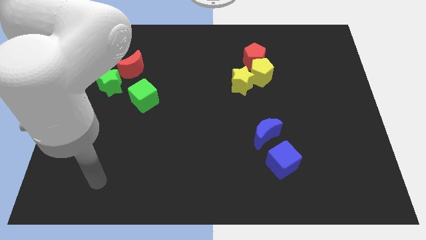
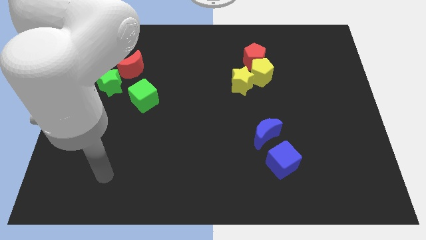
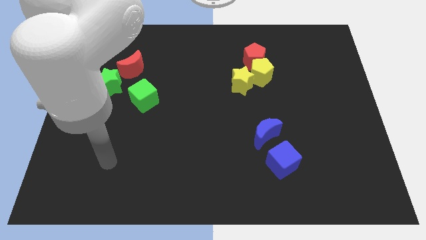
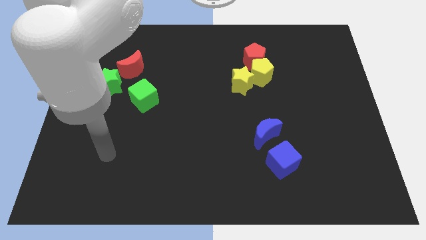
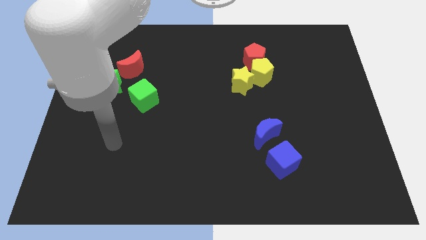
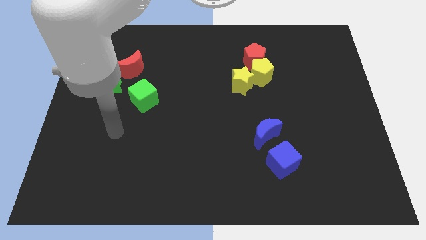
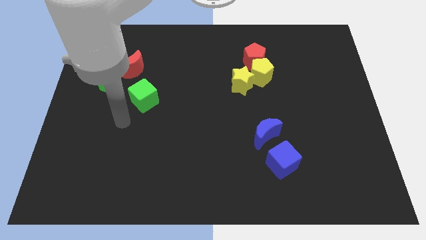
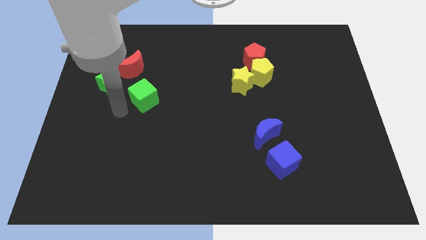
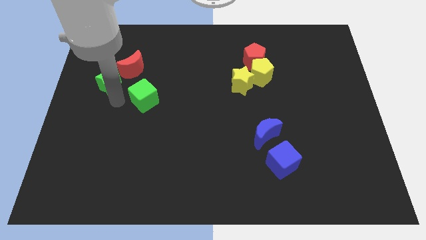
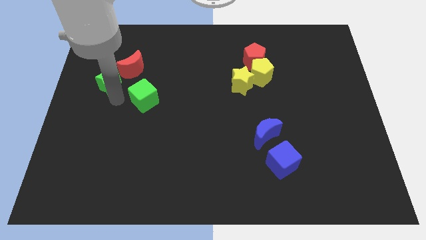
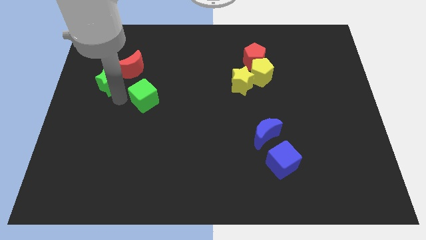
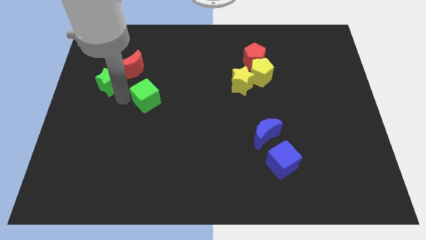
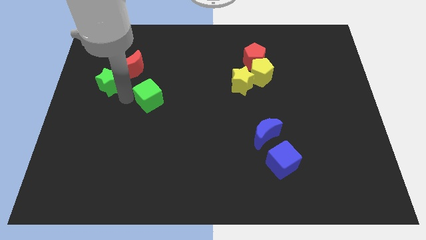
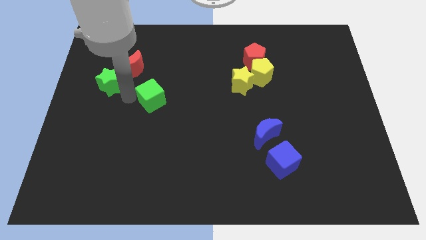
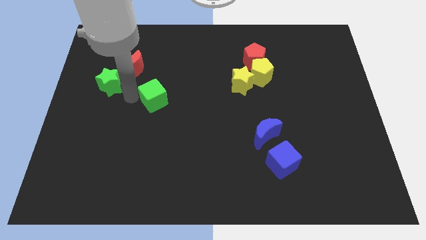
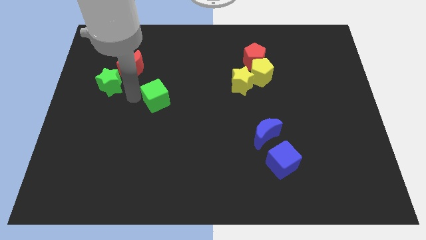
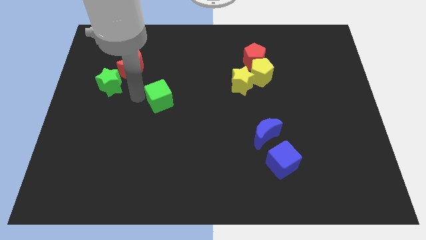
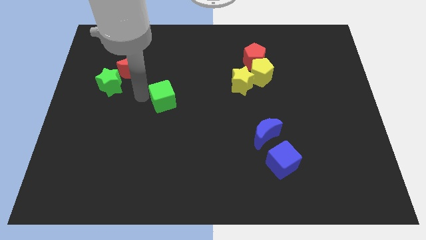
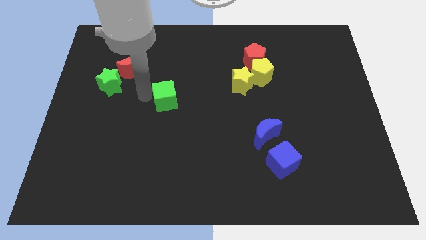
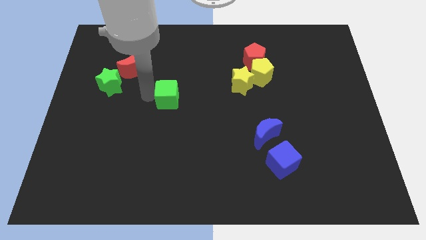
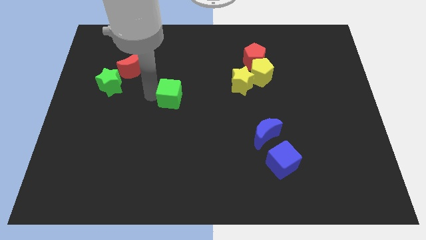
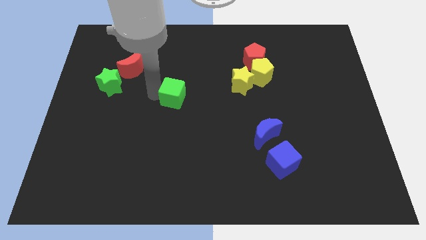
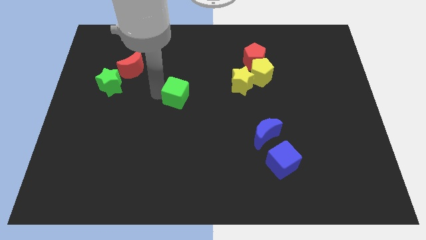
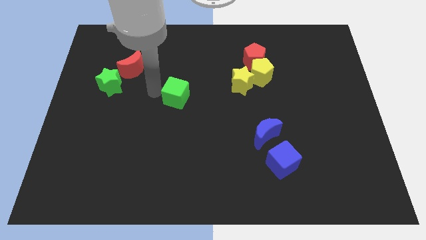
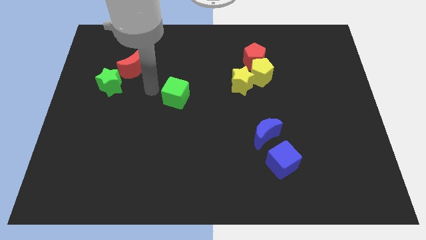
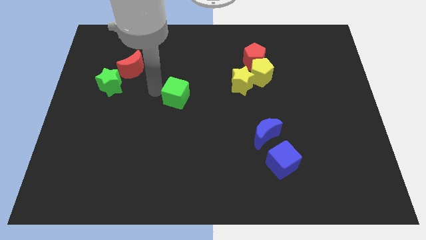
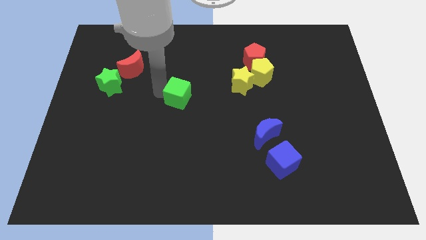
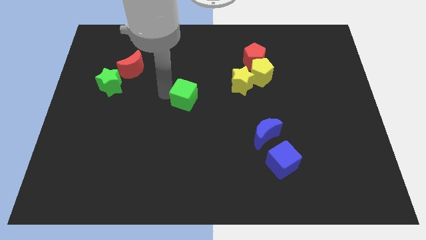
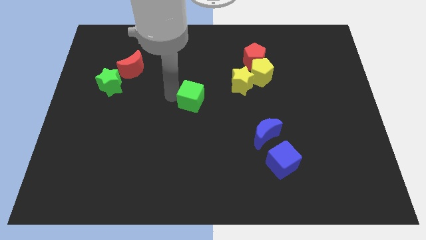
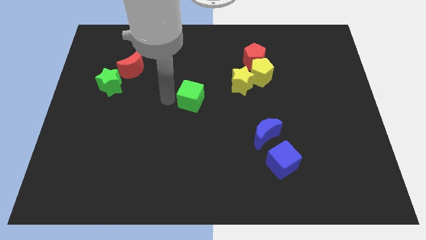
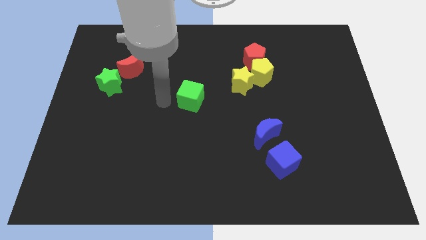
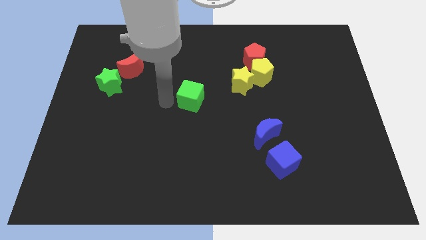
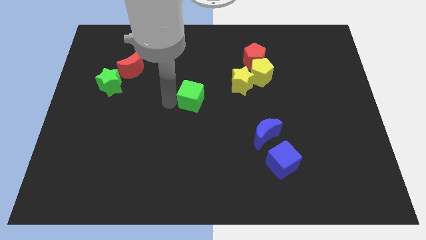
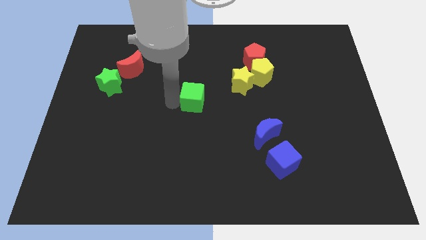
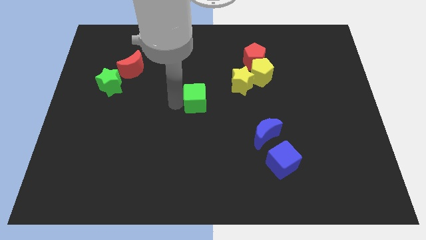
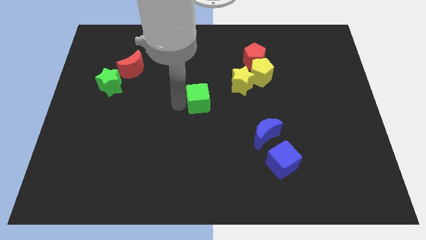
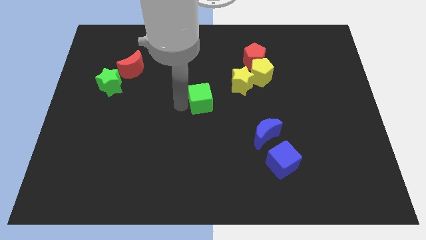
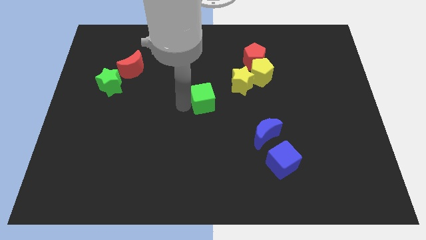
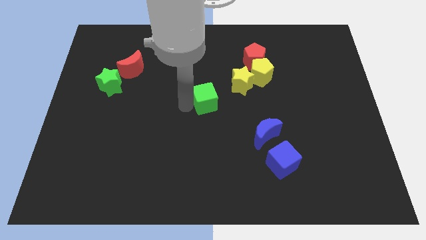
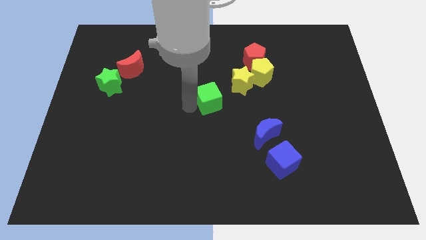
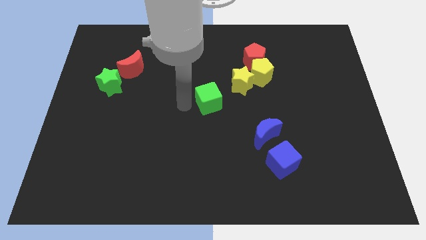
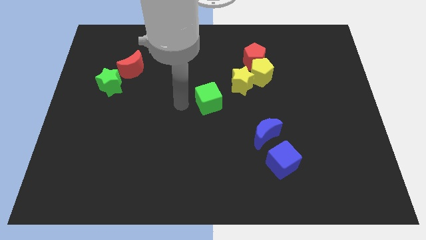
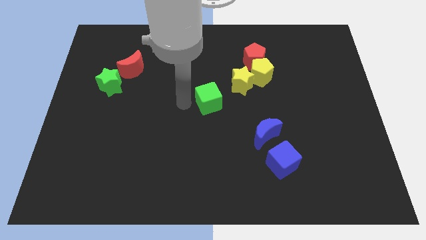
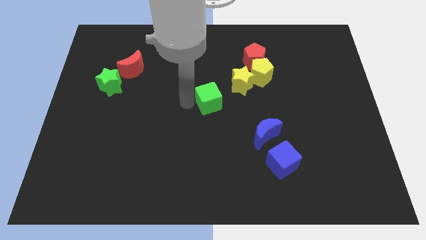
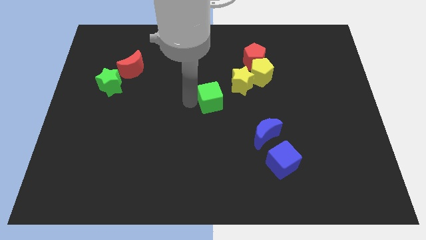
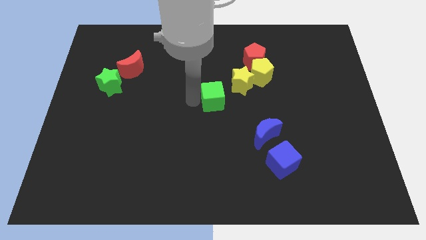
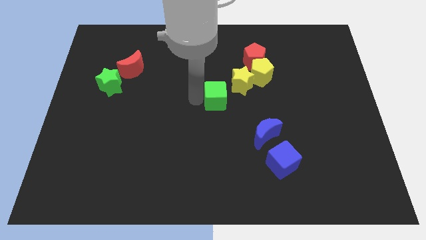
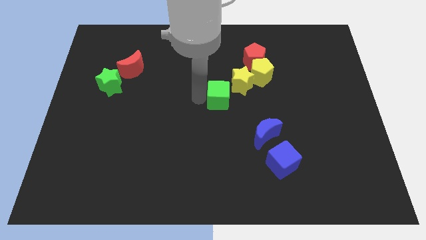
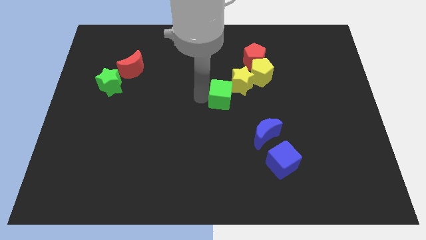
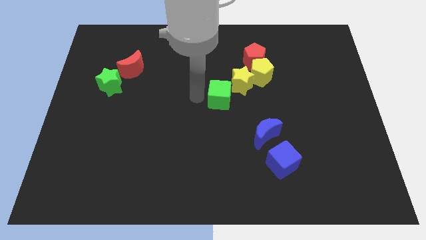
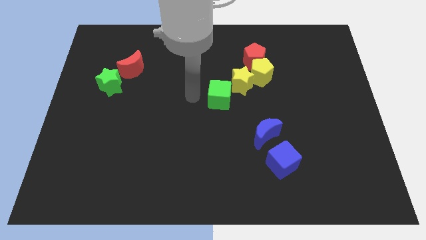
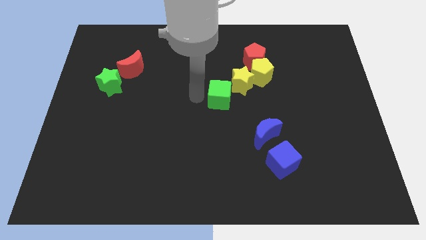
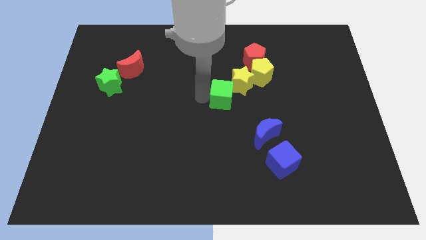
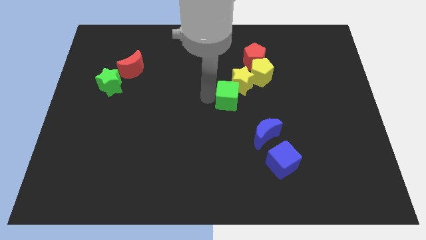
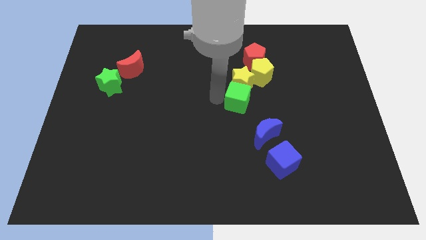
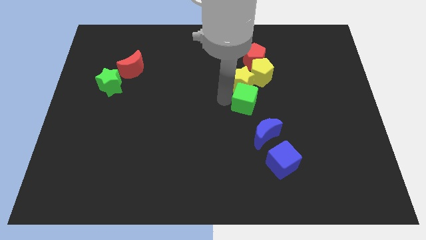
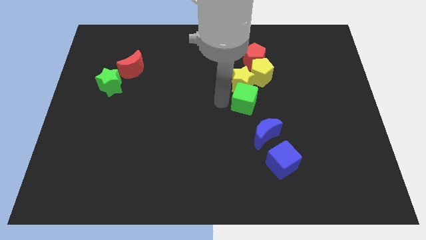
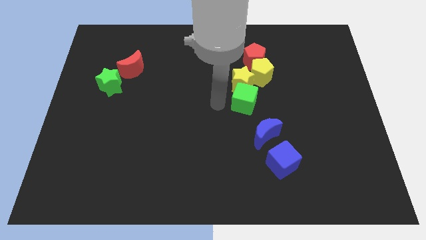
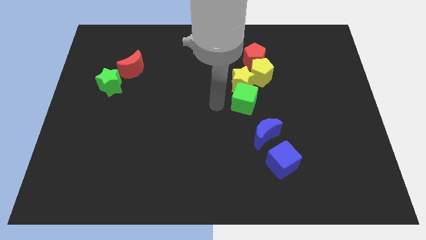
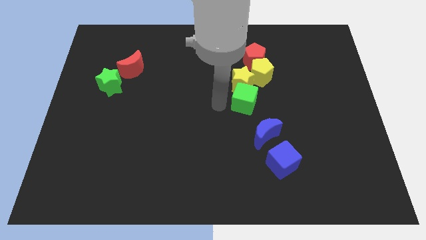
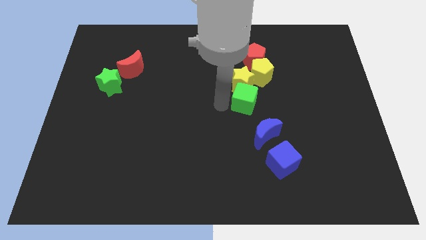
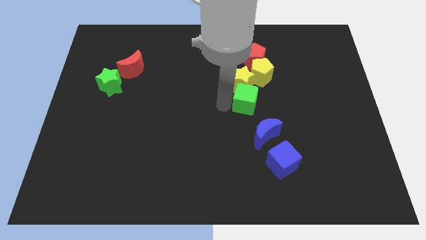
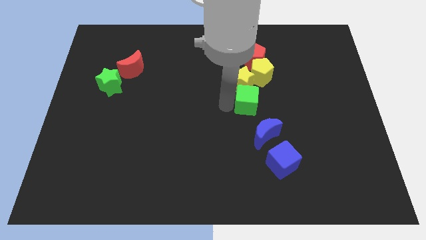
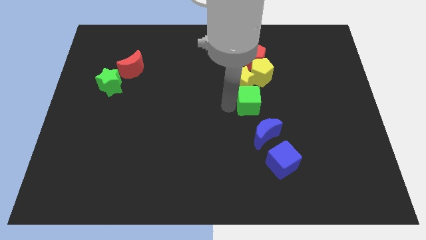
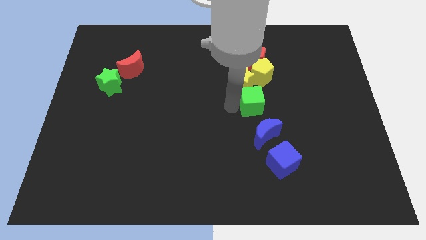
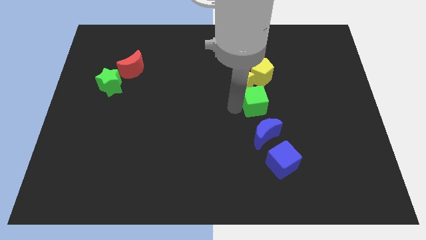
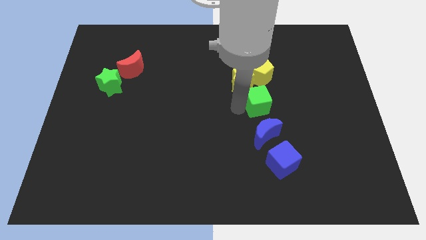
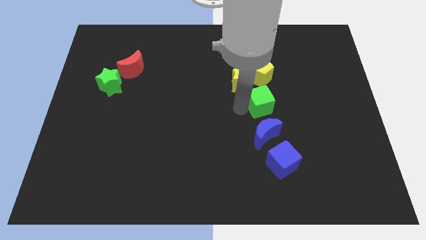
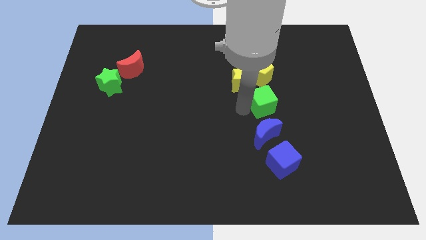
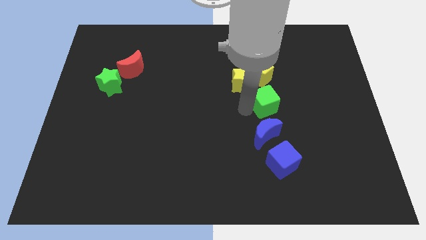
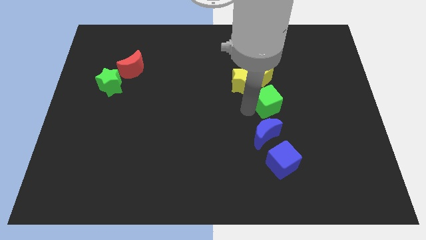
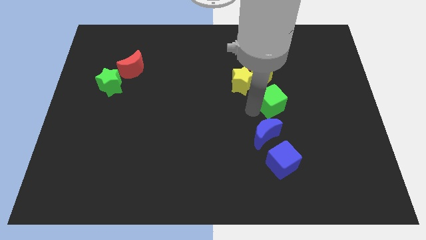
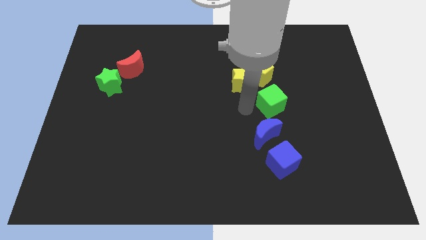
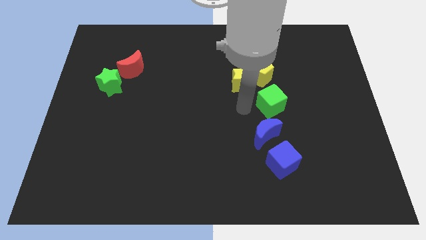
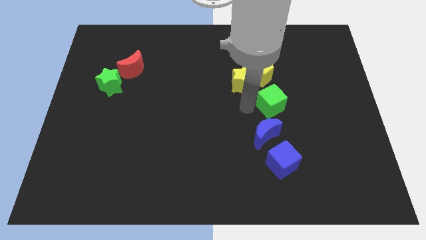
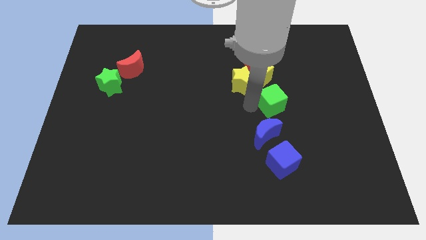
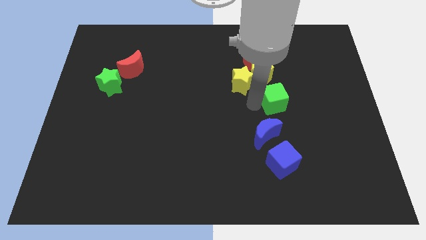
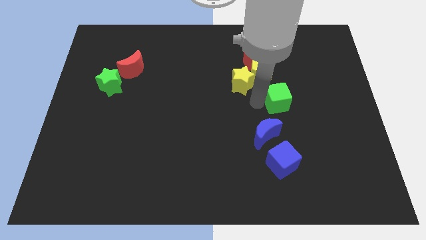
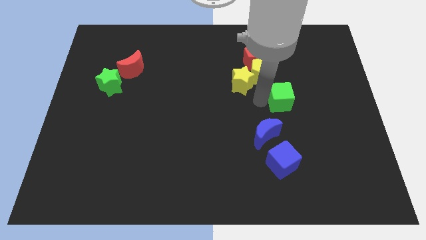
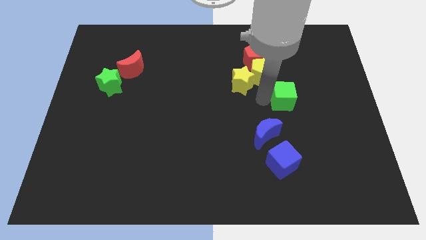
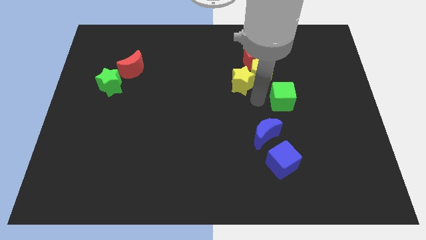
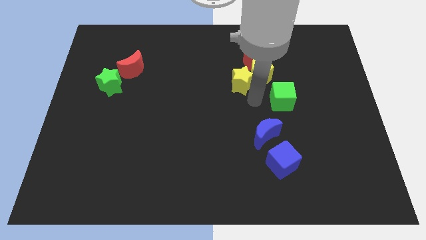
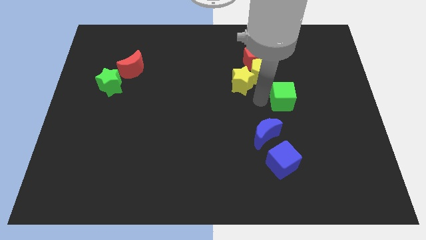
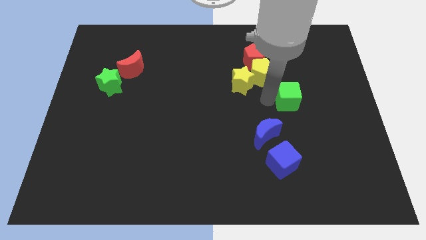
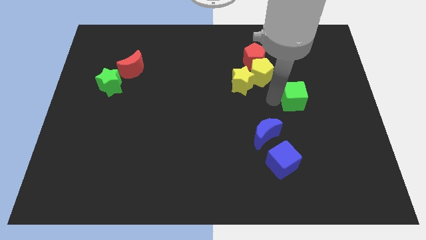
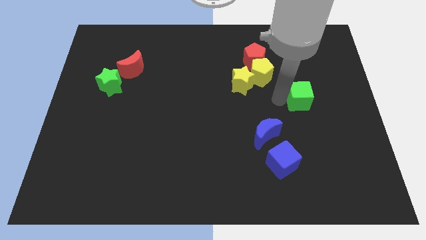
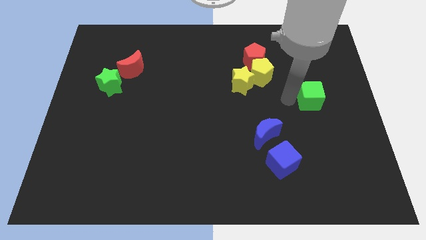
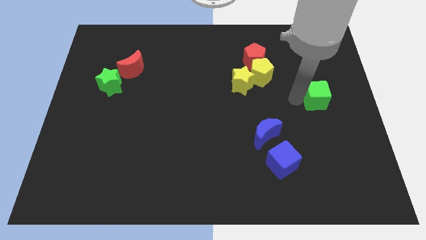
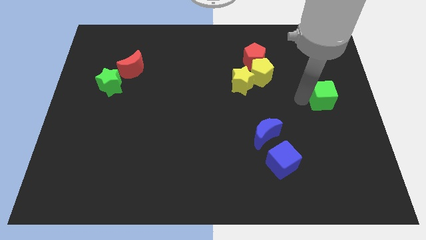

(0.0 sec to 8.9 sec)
put the green cube to the center right
